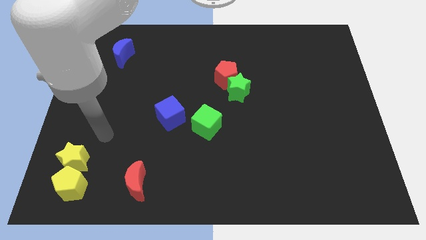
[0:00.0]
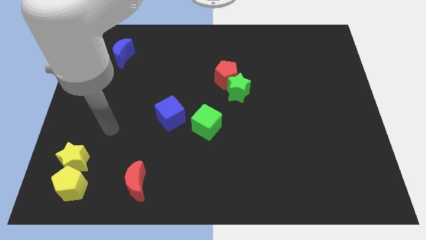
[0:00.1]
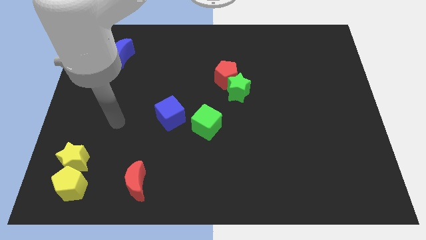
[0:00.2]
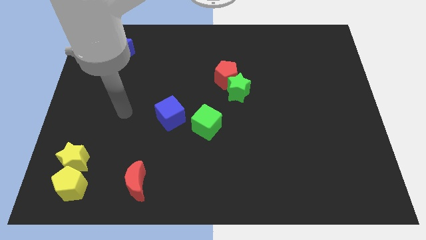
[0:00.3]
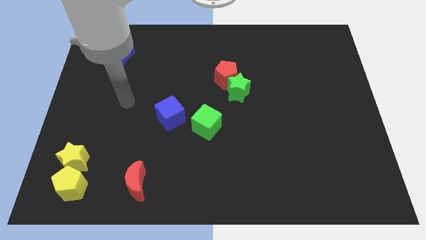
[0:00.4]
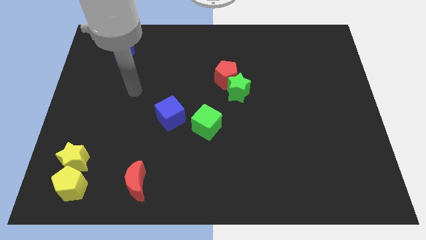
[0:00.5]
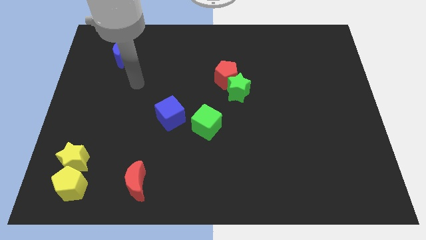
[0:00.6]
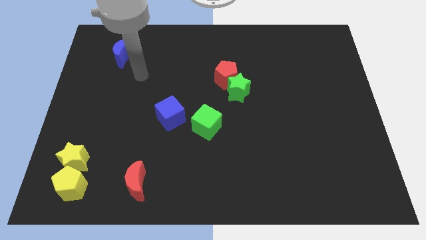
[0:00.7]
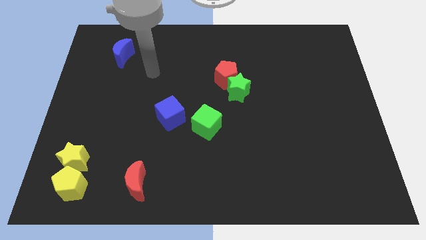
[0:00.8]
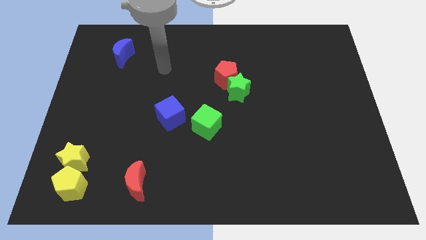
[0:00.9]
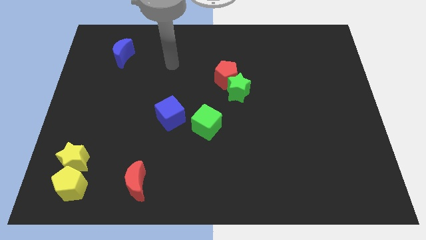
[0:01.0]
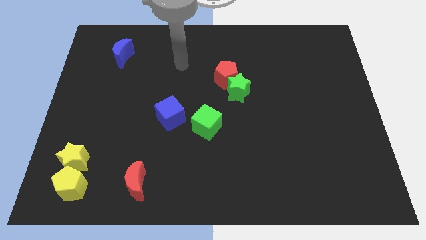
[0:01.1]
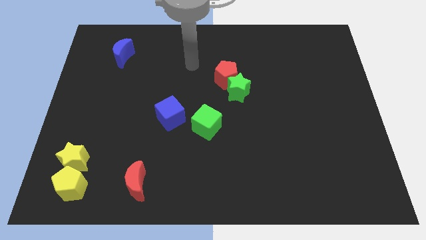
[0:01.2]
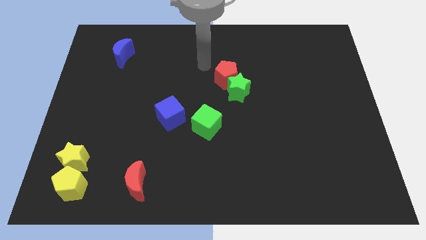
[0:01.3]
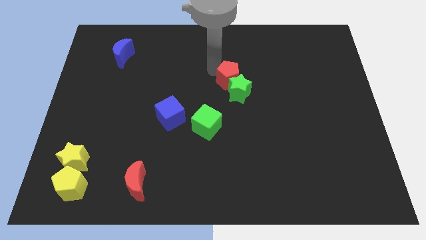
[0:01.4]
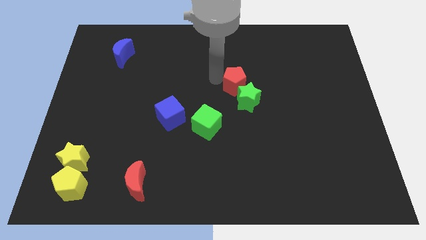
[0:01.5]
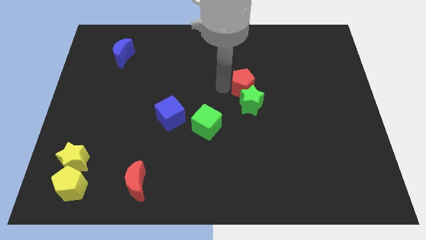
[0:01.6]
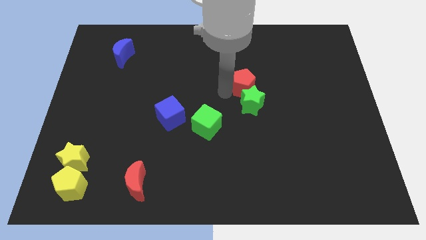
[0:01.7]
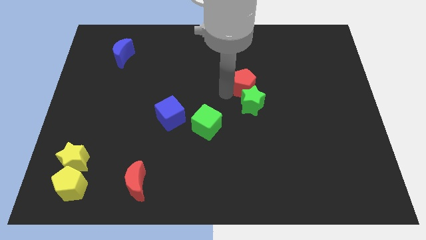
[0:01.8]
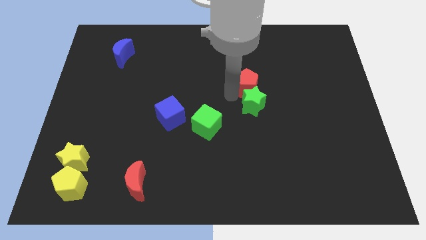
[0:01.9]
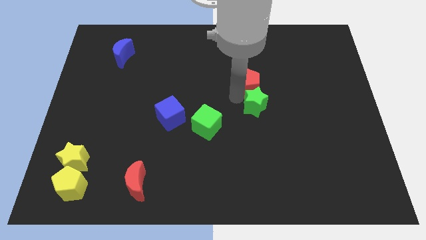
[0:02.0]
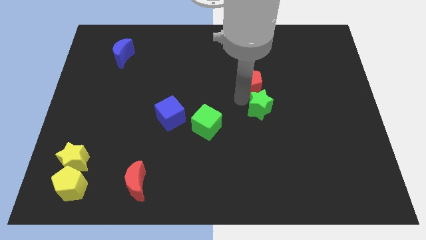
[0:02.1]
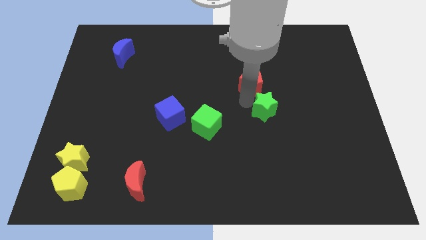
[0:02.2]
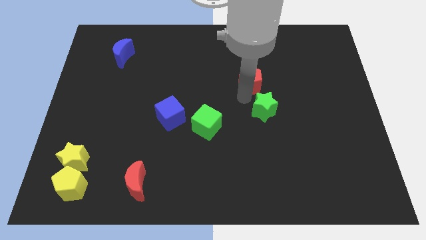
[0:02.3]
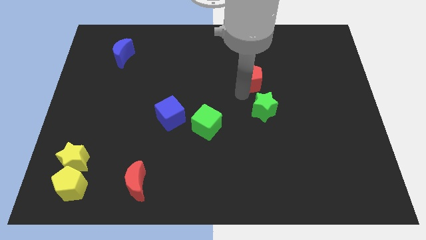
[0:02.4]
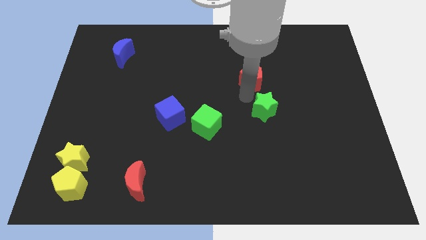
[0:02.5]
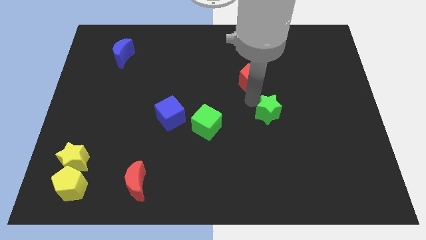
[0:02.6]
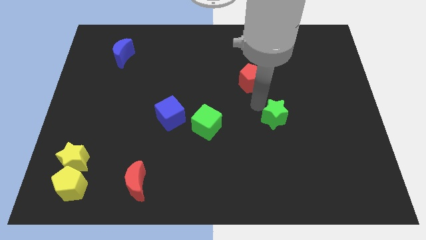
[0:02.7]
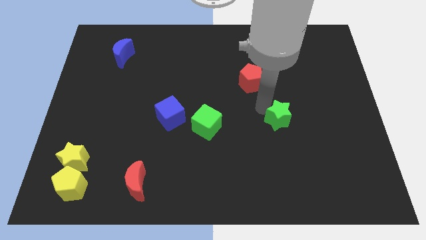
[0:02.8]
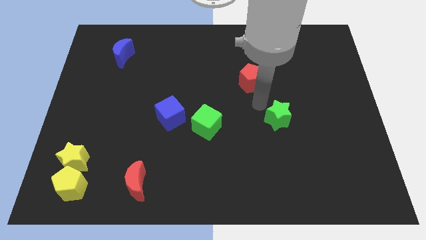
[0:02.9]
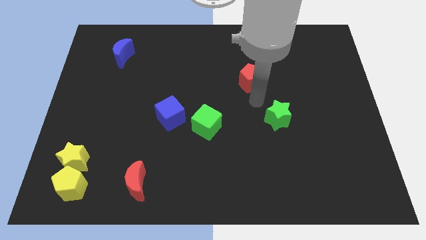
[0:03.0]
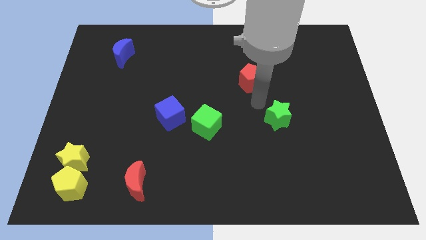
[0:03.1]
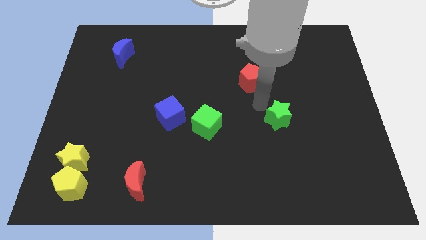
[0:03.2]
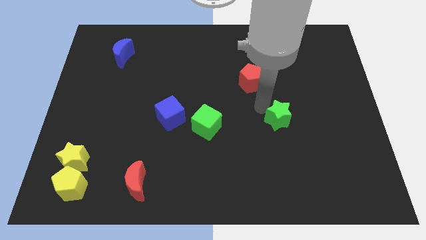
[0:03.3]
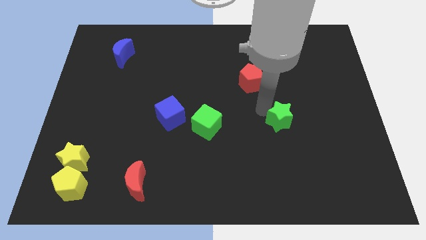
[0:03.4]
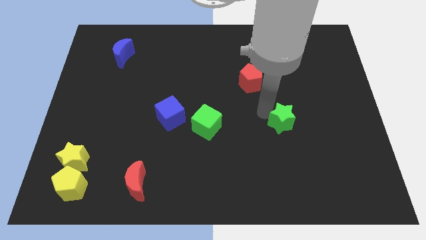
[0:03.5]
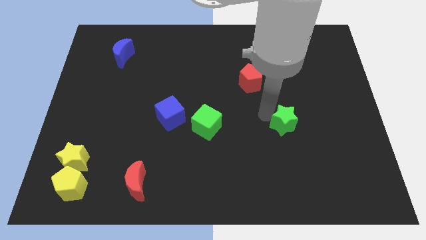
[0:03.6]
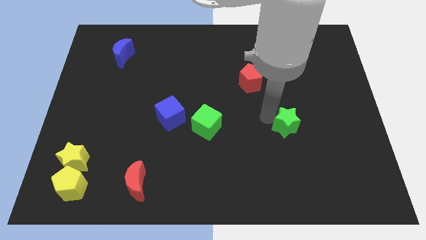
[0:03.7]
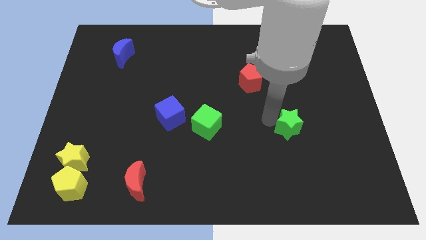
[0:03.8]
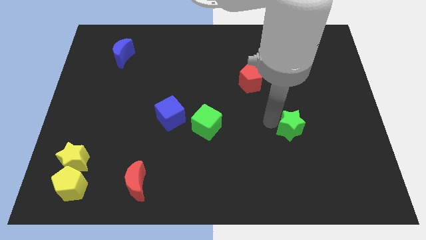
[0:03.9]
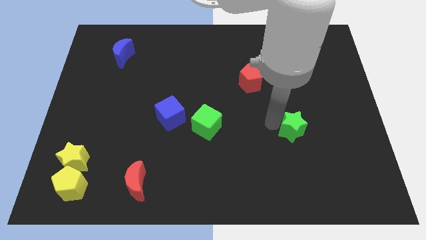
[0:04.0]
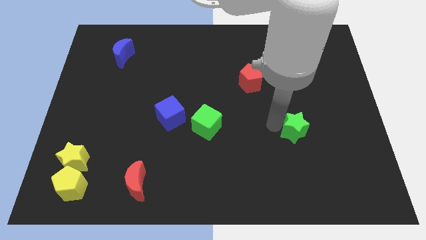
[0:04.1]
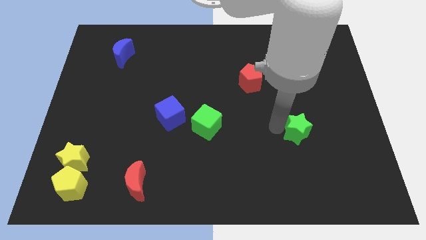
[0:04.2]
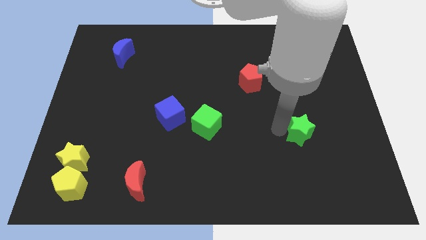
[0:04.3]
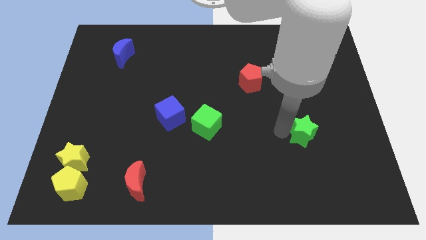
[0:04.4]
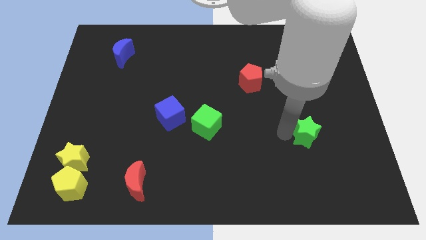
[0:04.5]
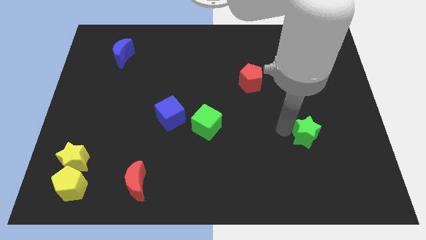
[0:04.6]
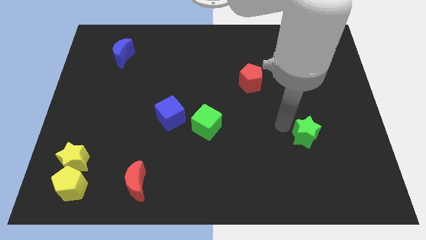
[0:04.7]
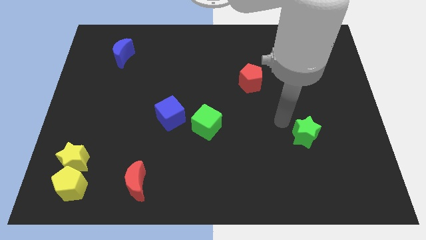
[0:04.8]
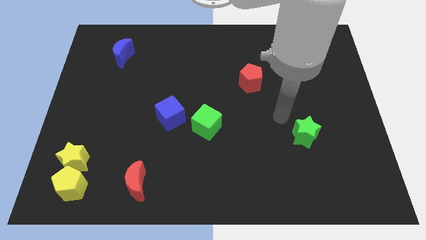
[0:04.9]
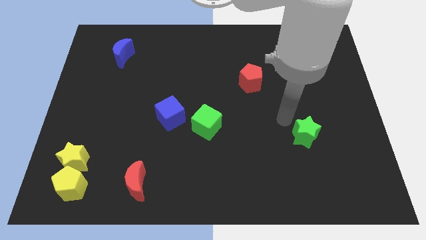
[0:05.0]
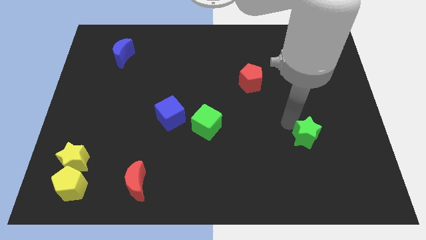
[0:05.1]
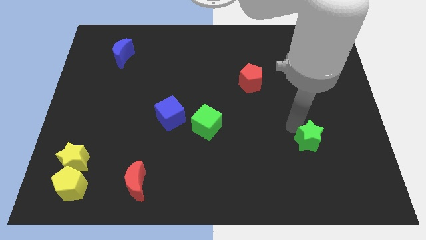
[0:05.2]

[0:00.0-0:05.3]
move the green star downwards and then to the right

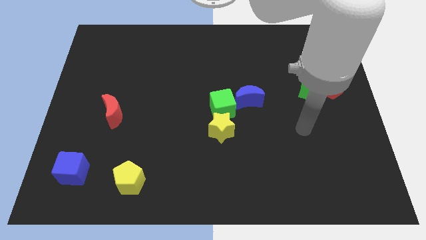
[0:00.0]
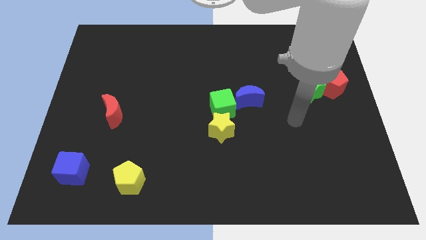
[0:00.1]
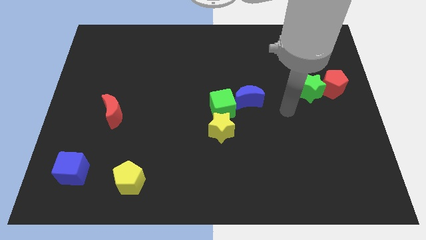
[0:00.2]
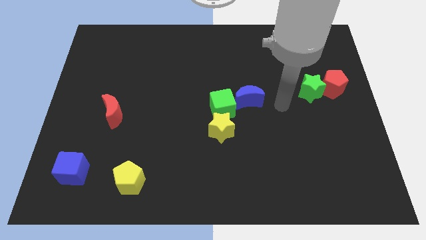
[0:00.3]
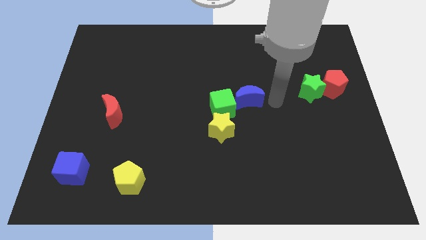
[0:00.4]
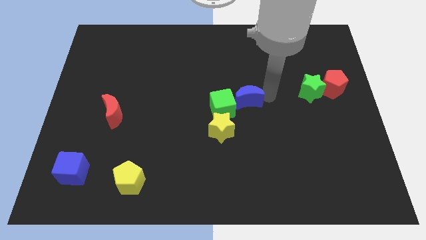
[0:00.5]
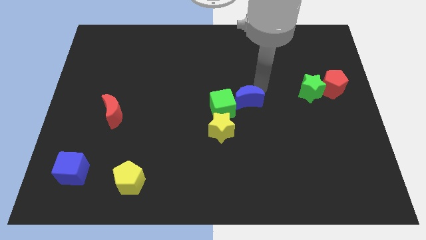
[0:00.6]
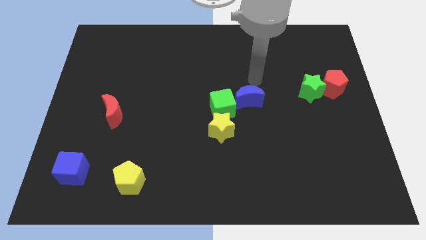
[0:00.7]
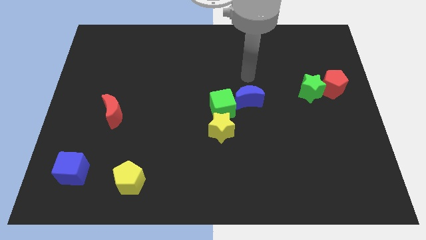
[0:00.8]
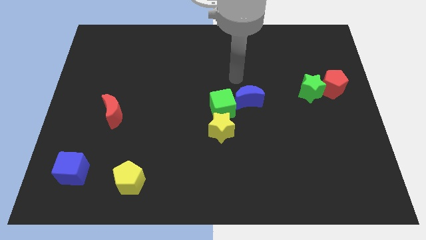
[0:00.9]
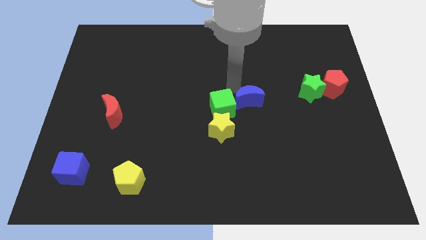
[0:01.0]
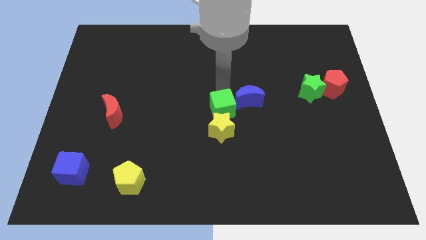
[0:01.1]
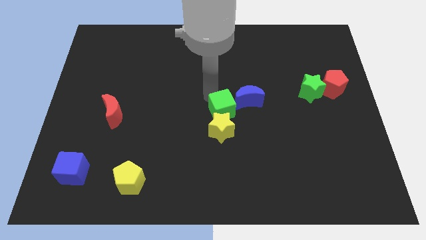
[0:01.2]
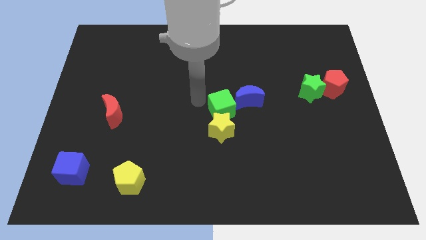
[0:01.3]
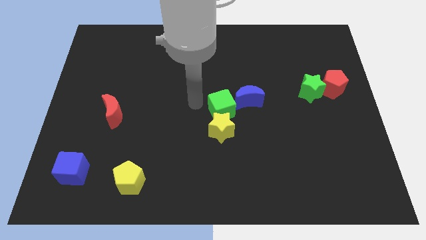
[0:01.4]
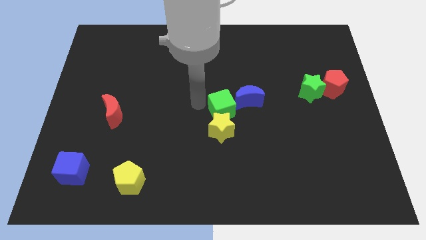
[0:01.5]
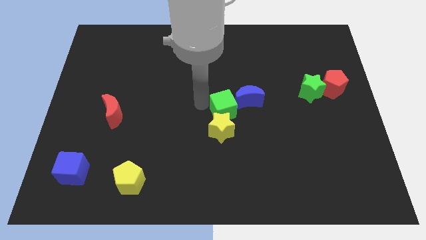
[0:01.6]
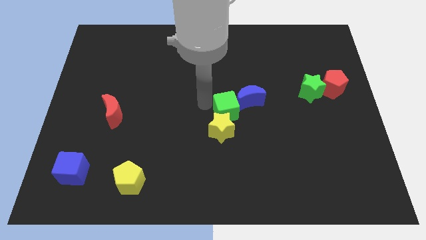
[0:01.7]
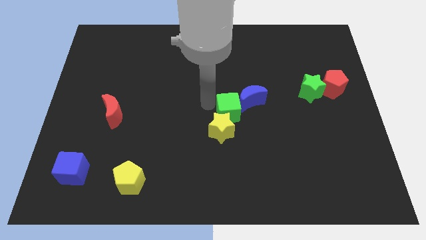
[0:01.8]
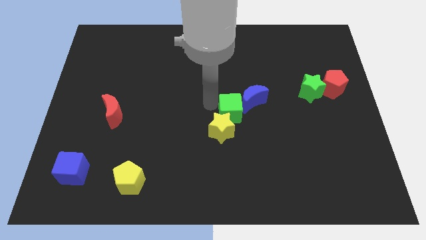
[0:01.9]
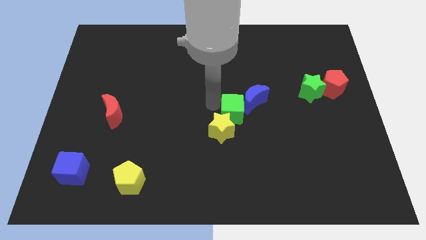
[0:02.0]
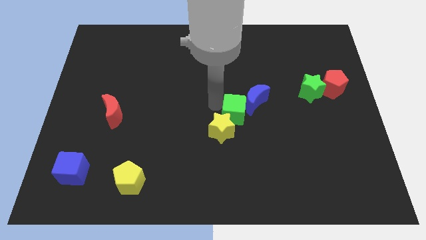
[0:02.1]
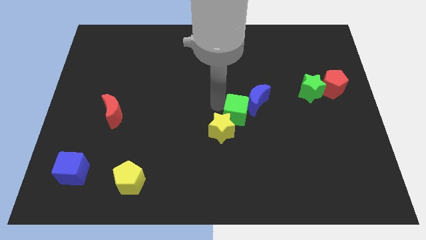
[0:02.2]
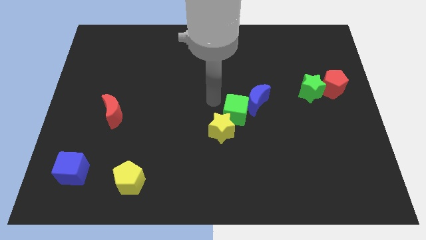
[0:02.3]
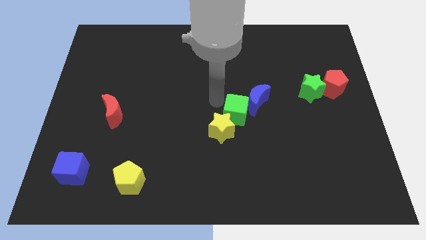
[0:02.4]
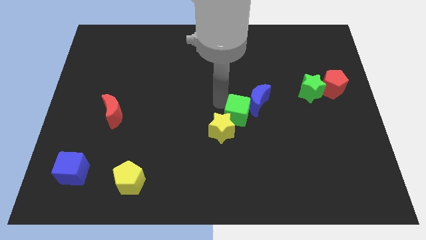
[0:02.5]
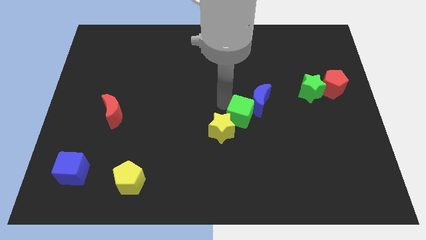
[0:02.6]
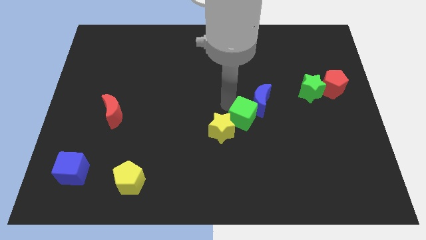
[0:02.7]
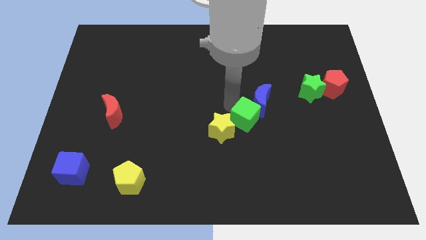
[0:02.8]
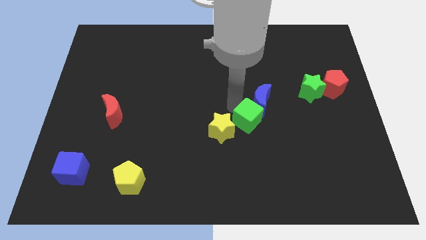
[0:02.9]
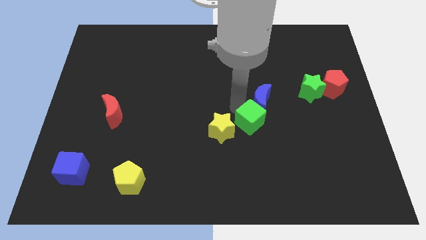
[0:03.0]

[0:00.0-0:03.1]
move the green cube downwards and to the right diagonally a little bit

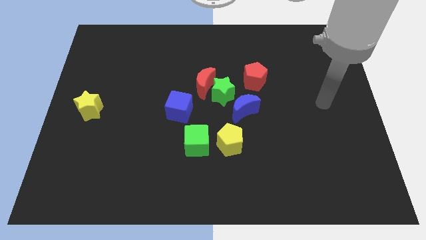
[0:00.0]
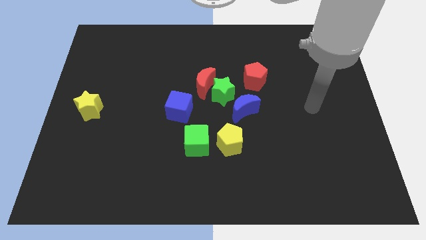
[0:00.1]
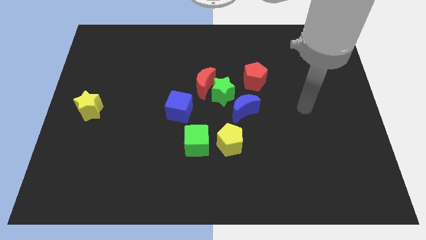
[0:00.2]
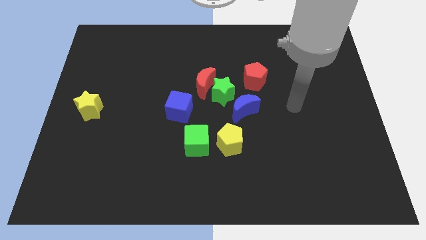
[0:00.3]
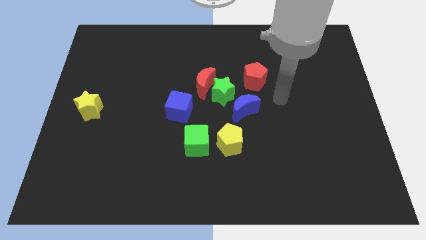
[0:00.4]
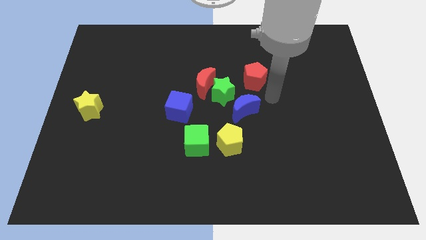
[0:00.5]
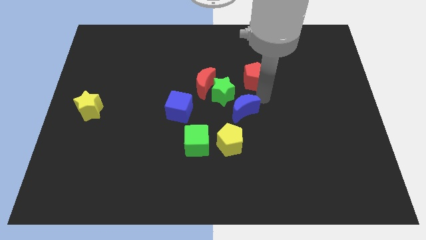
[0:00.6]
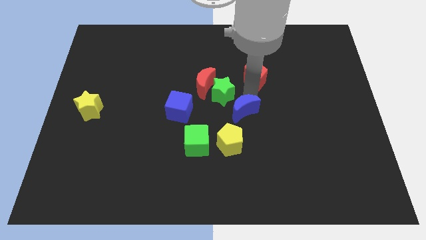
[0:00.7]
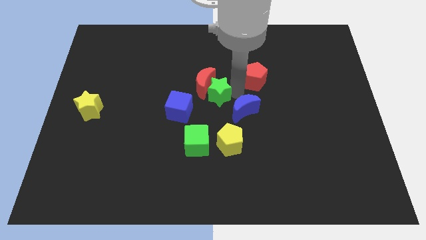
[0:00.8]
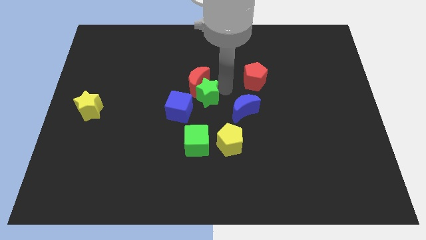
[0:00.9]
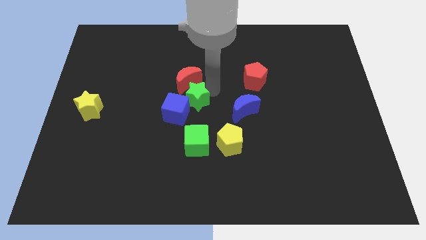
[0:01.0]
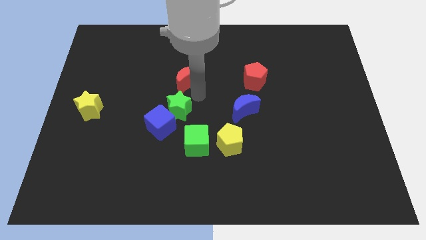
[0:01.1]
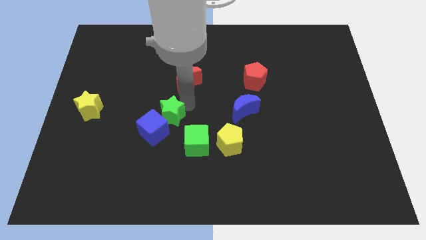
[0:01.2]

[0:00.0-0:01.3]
slightly move the blue cube downwards and then to the left
